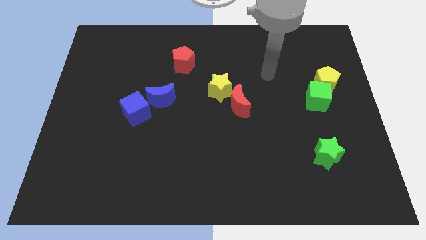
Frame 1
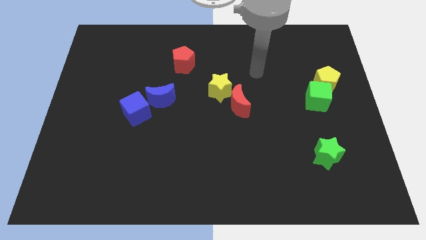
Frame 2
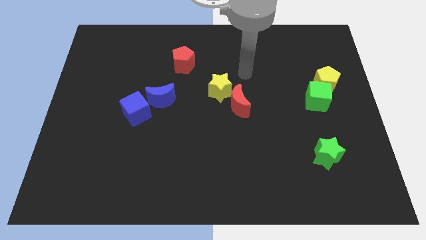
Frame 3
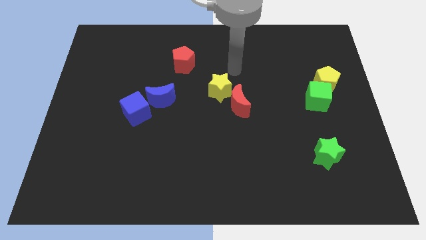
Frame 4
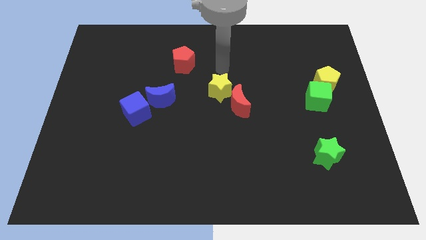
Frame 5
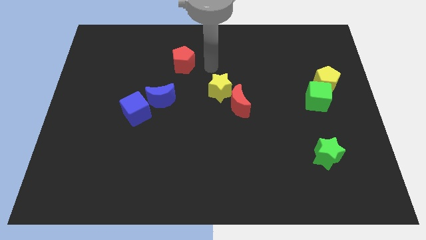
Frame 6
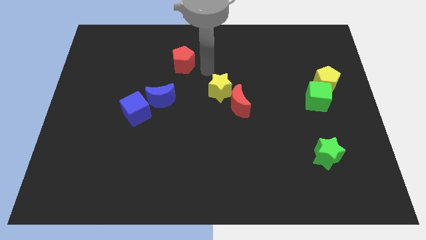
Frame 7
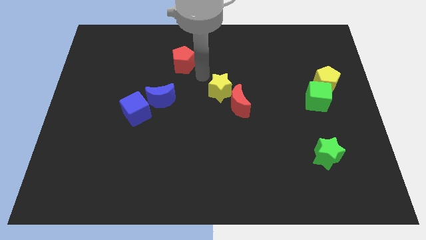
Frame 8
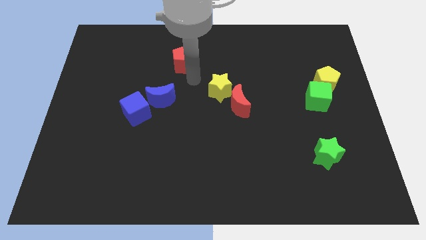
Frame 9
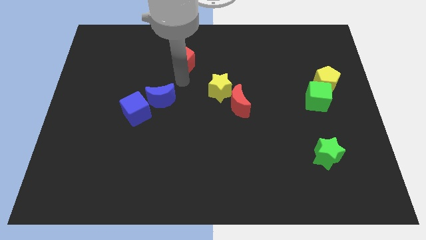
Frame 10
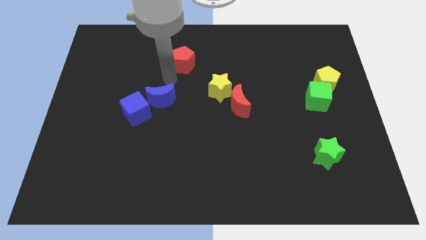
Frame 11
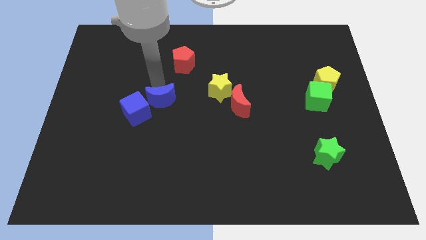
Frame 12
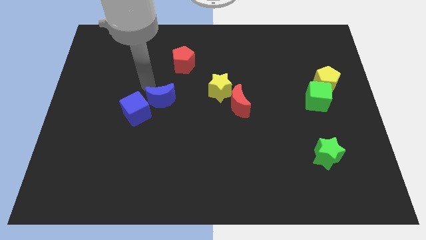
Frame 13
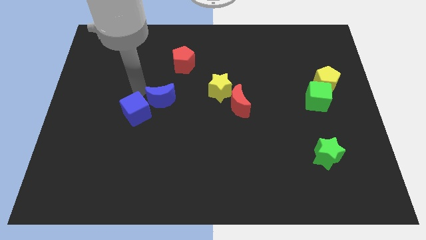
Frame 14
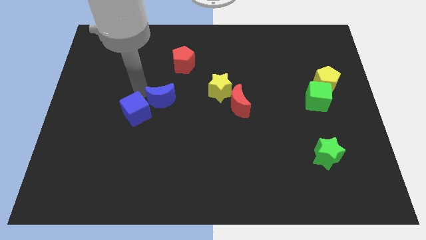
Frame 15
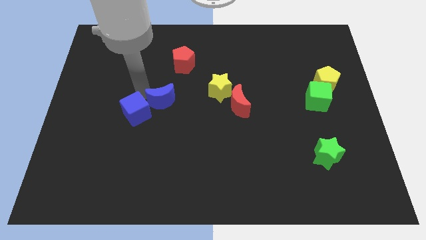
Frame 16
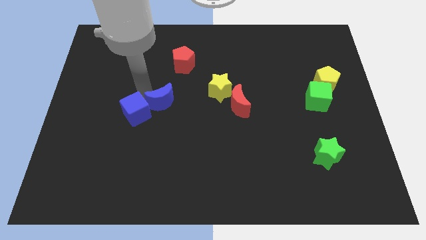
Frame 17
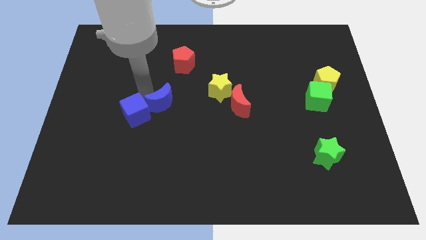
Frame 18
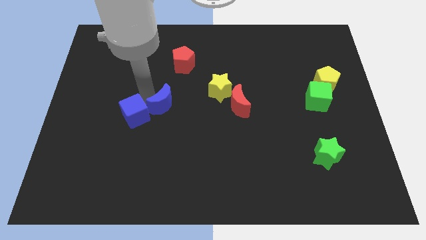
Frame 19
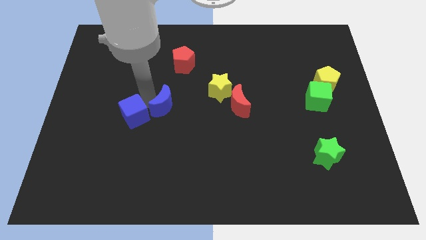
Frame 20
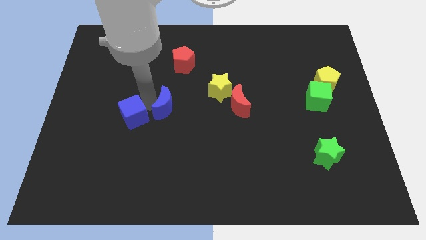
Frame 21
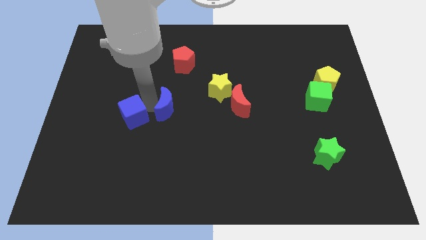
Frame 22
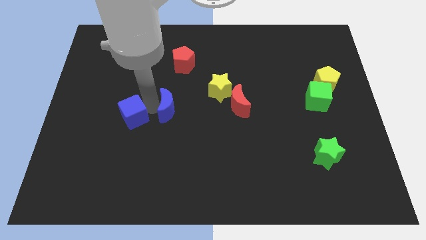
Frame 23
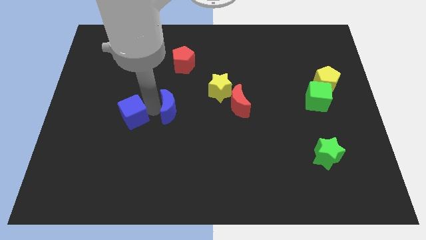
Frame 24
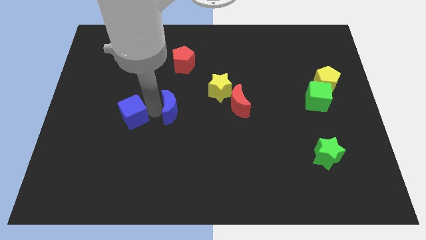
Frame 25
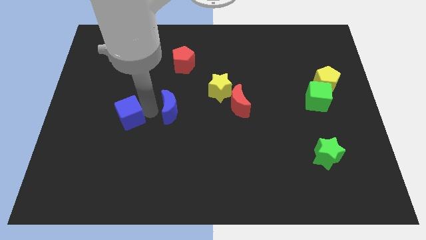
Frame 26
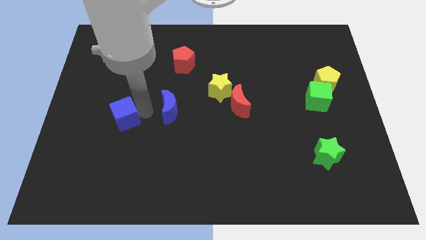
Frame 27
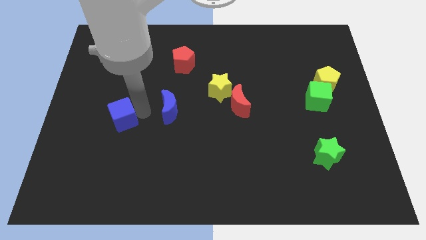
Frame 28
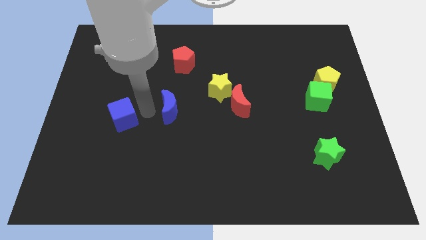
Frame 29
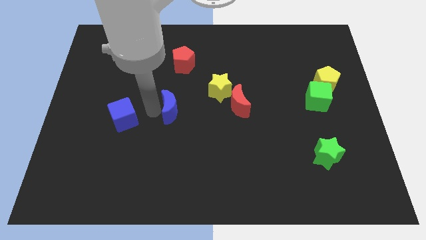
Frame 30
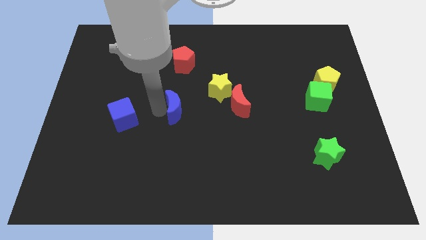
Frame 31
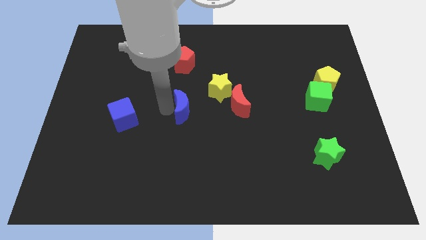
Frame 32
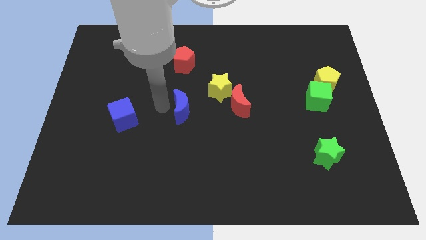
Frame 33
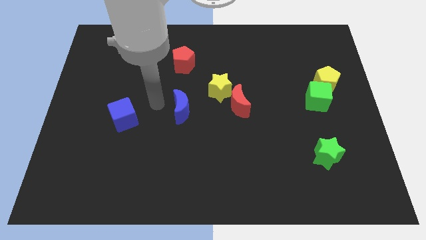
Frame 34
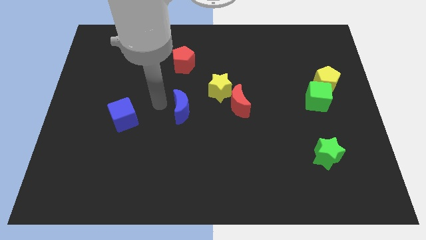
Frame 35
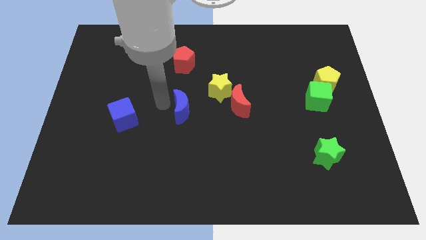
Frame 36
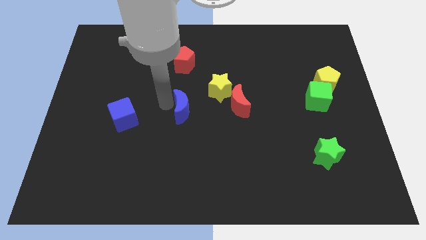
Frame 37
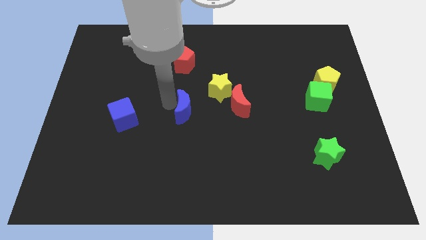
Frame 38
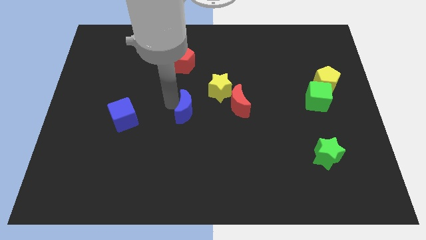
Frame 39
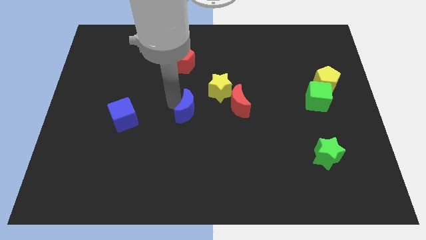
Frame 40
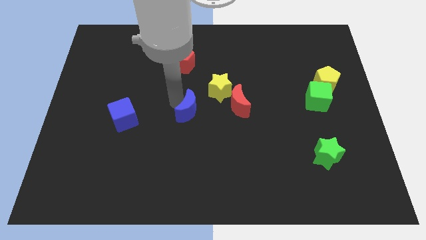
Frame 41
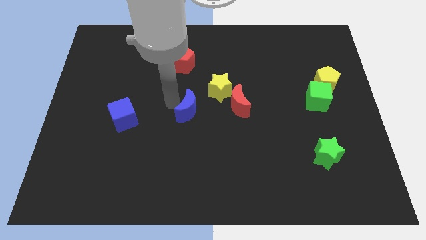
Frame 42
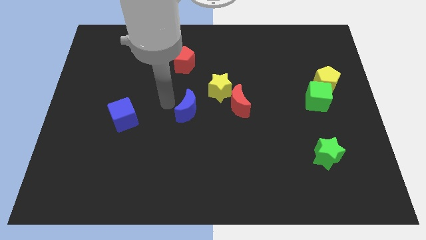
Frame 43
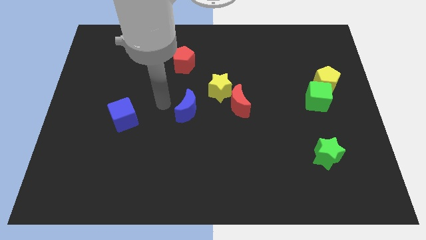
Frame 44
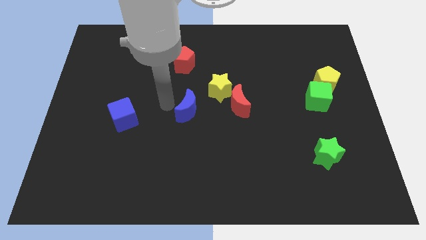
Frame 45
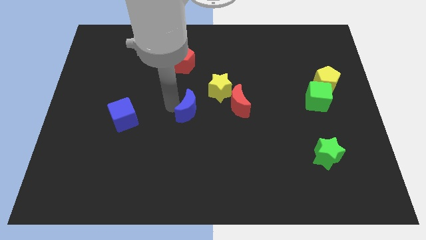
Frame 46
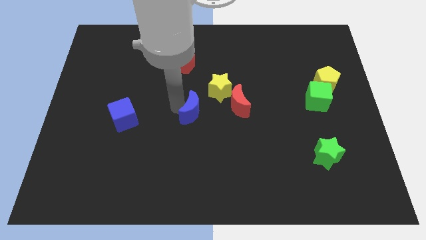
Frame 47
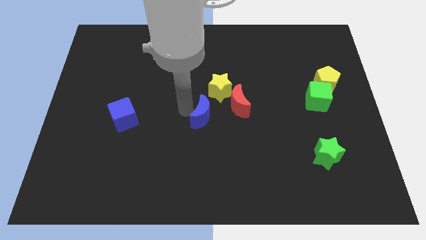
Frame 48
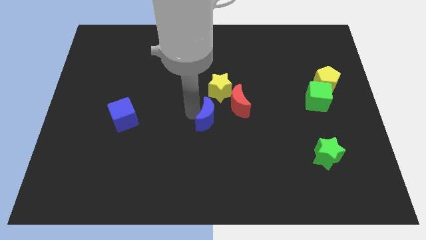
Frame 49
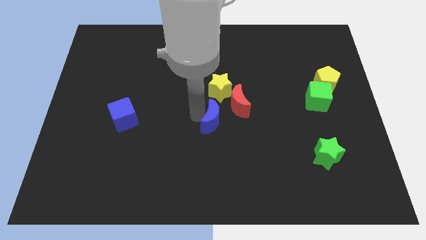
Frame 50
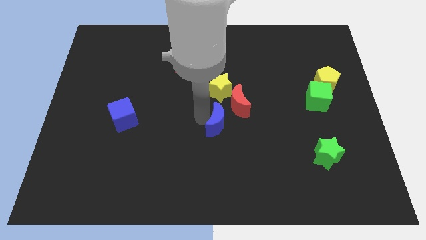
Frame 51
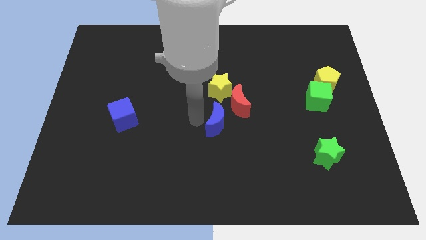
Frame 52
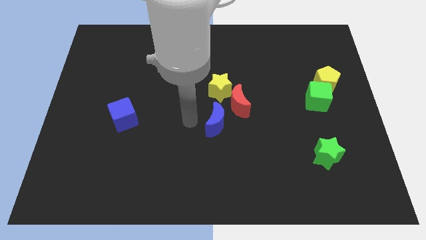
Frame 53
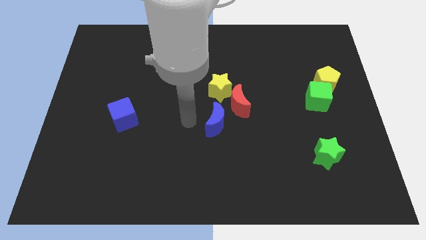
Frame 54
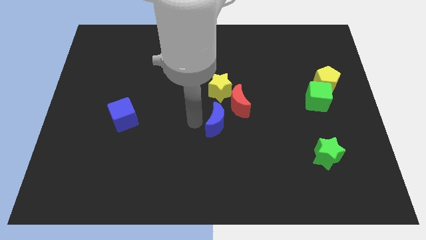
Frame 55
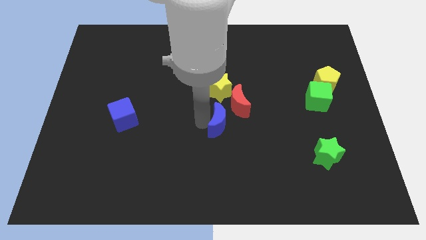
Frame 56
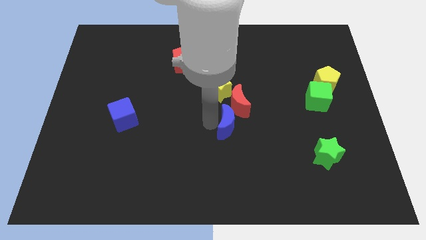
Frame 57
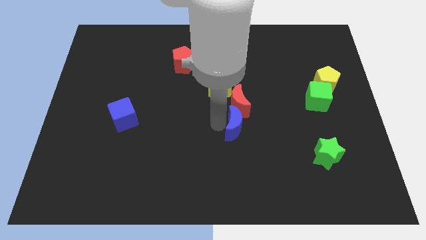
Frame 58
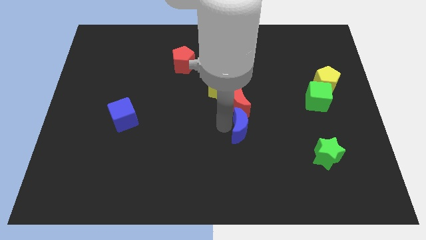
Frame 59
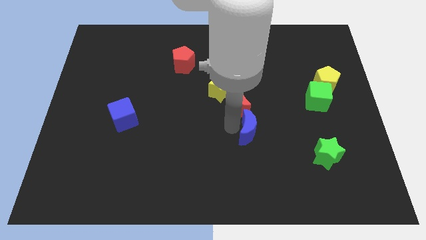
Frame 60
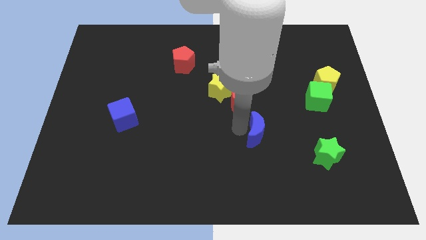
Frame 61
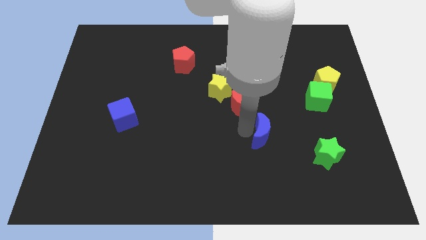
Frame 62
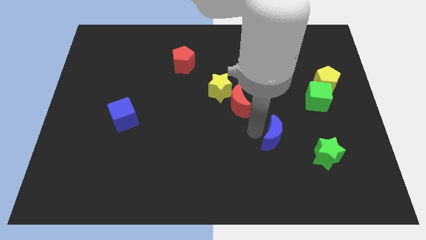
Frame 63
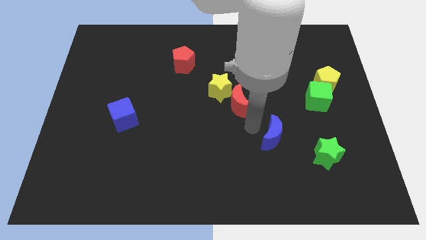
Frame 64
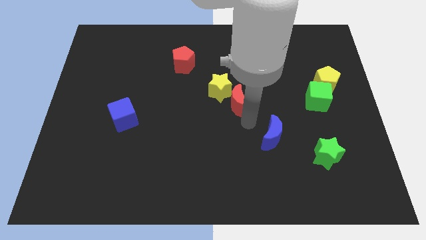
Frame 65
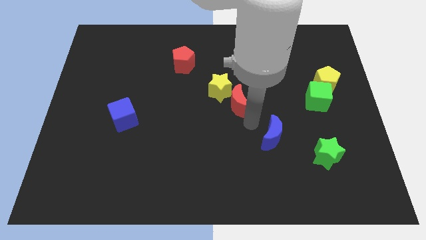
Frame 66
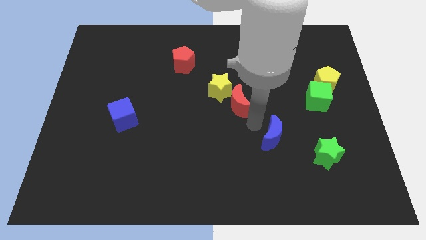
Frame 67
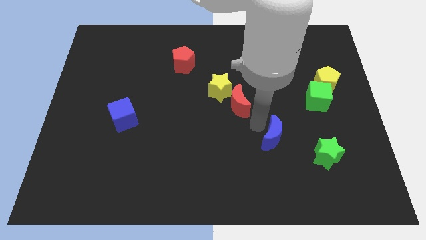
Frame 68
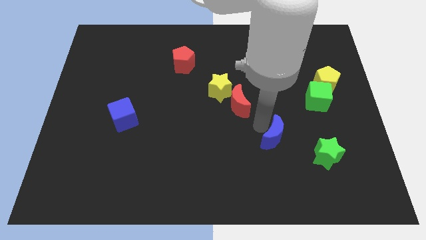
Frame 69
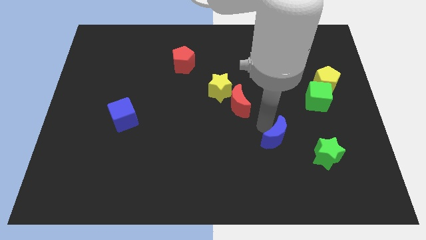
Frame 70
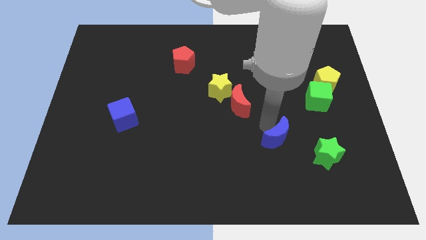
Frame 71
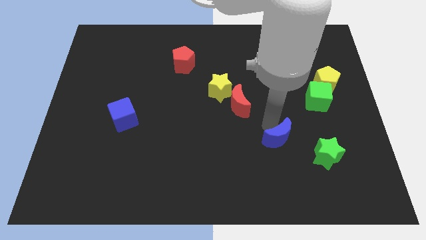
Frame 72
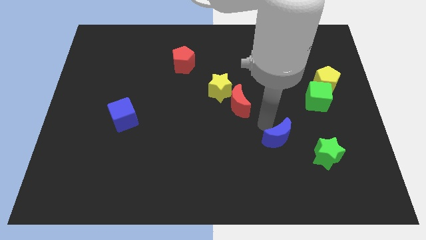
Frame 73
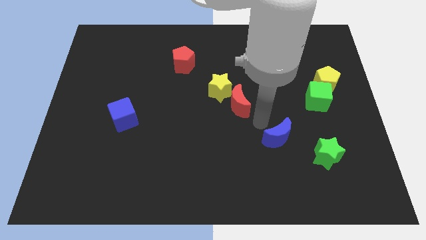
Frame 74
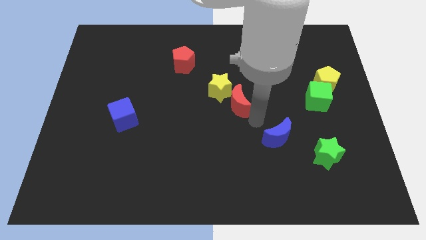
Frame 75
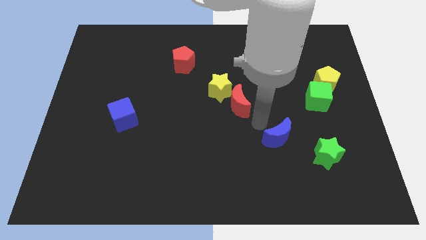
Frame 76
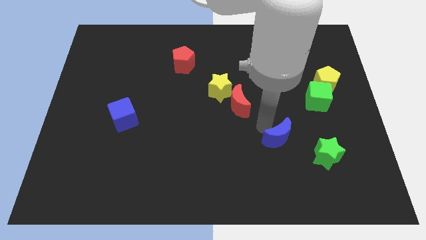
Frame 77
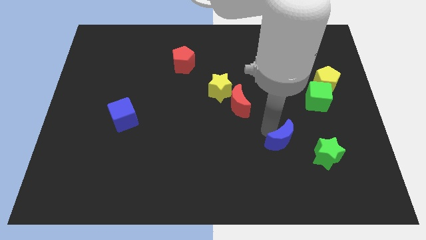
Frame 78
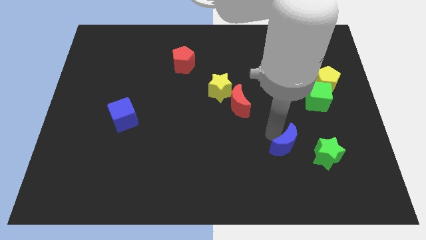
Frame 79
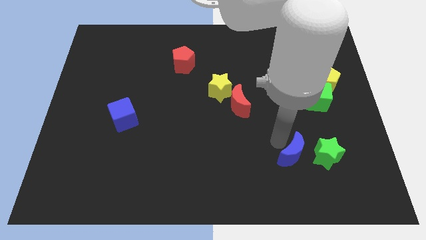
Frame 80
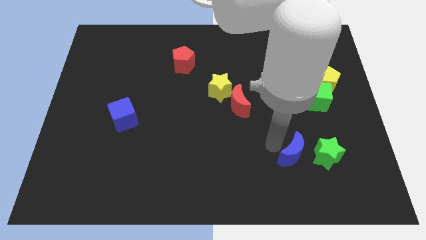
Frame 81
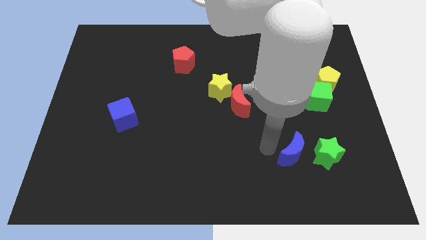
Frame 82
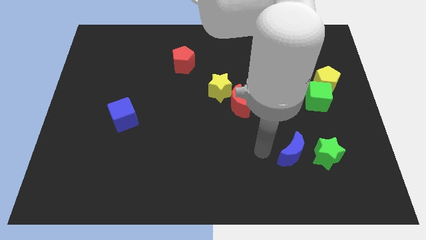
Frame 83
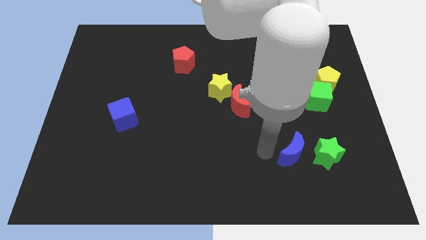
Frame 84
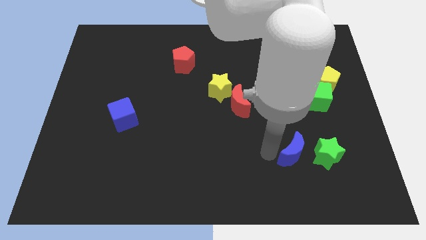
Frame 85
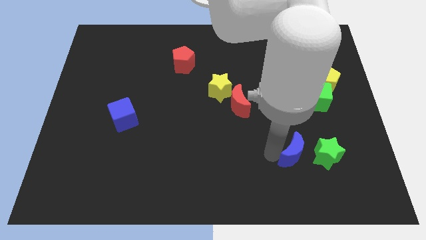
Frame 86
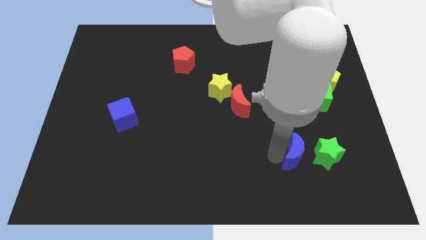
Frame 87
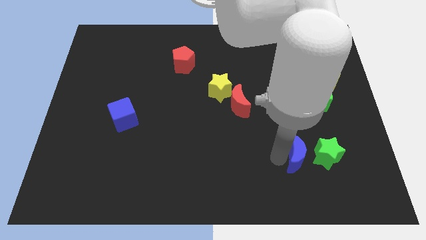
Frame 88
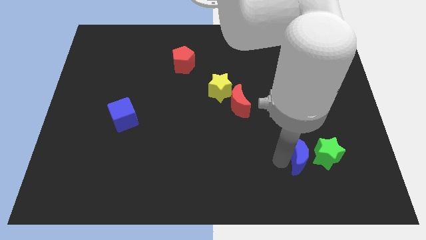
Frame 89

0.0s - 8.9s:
slide the blue moon to the green star
